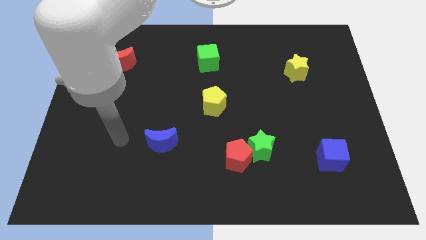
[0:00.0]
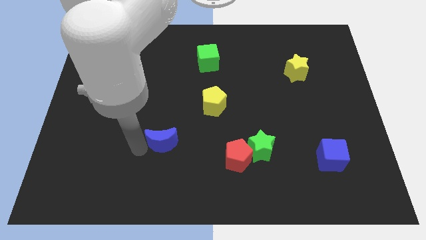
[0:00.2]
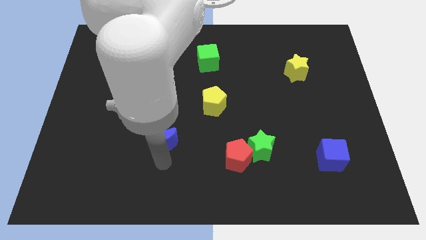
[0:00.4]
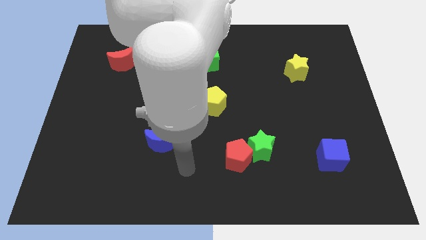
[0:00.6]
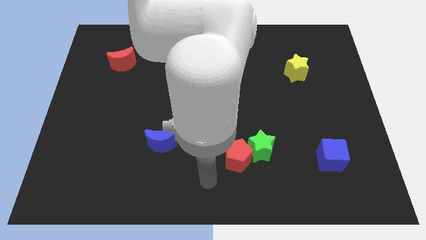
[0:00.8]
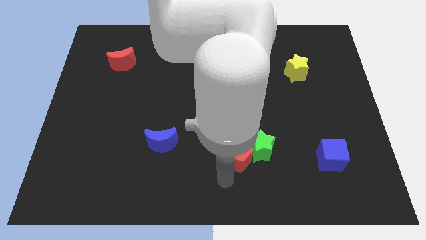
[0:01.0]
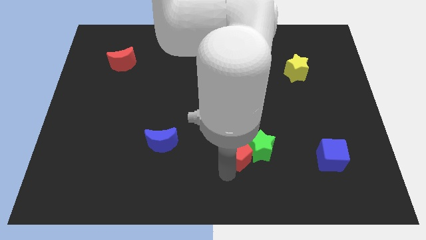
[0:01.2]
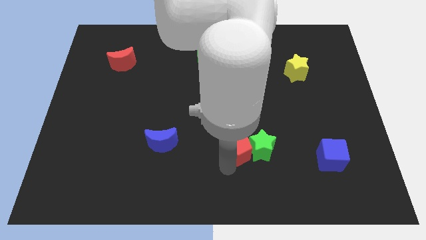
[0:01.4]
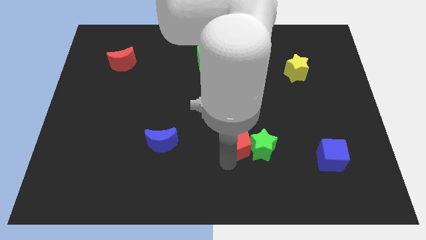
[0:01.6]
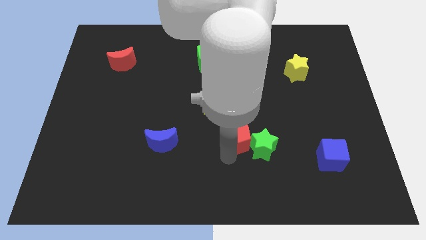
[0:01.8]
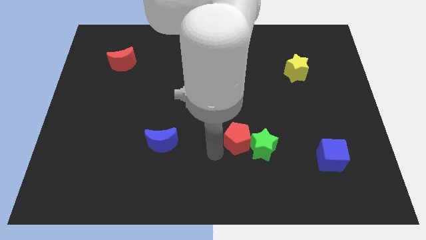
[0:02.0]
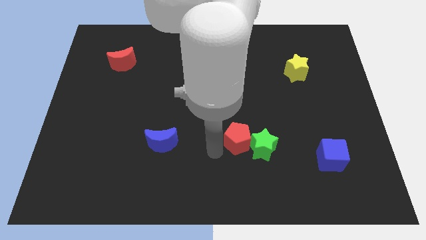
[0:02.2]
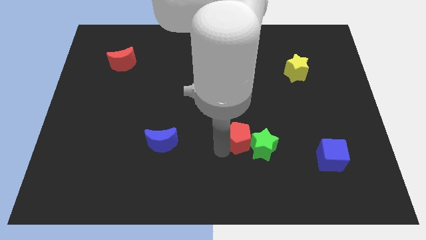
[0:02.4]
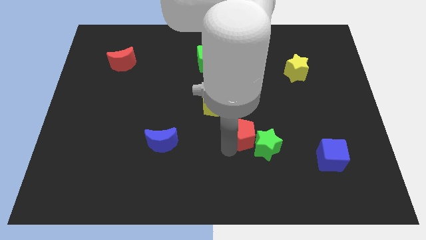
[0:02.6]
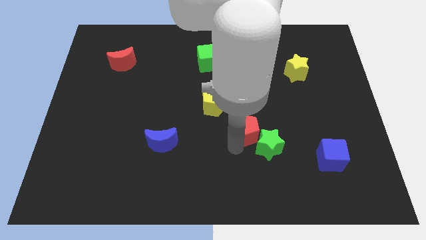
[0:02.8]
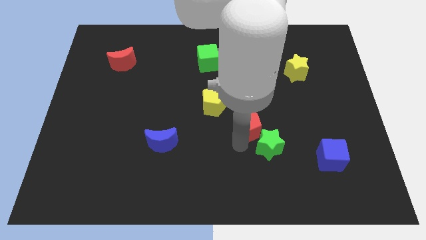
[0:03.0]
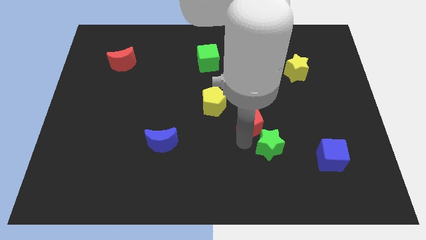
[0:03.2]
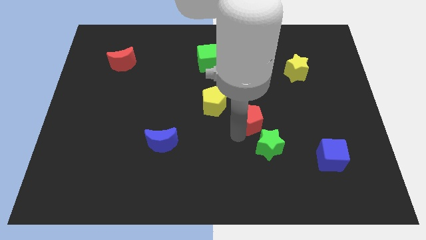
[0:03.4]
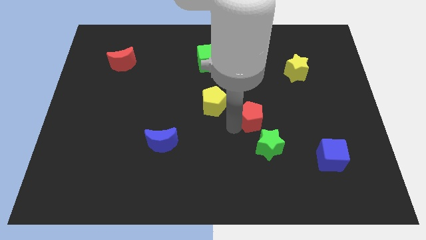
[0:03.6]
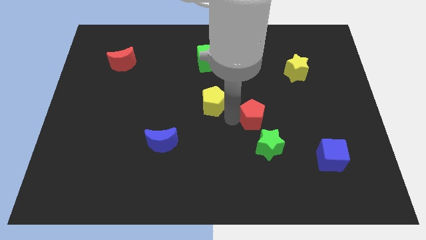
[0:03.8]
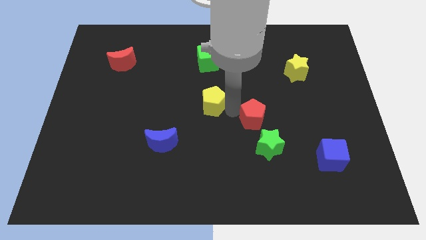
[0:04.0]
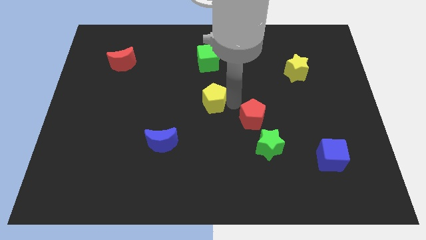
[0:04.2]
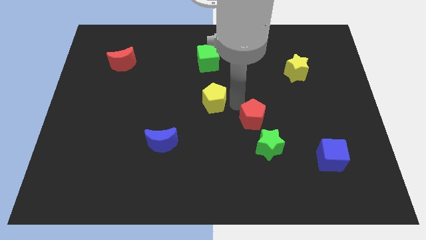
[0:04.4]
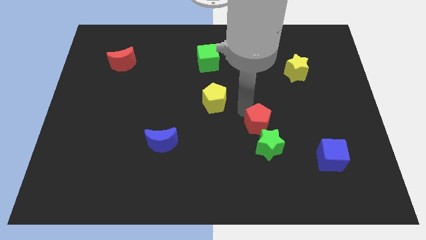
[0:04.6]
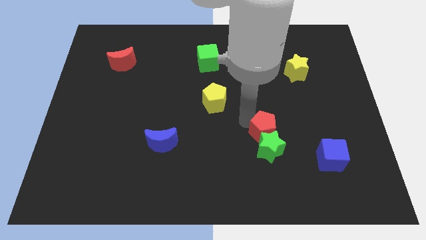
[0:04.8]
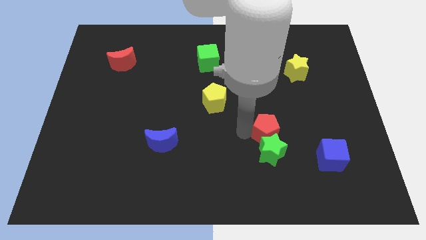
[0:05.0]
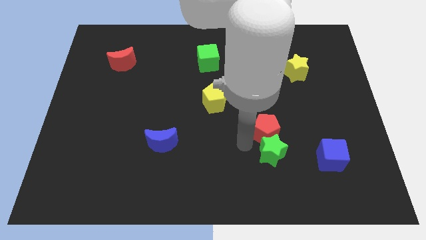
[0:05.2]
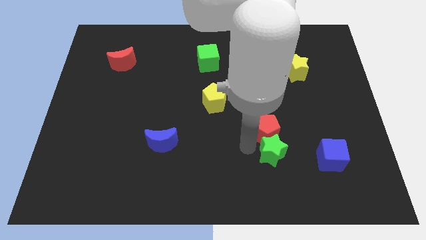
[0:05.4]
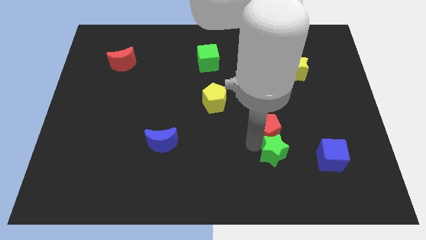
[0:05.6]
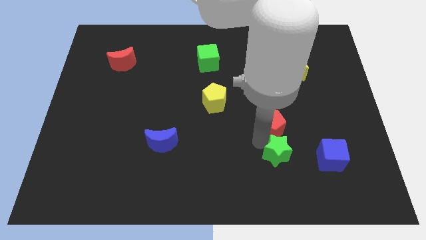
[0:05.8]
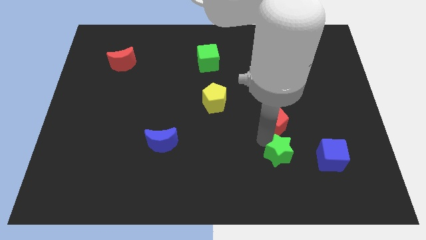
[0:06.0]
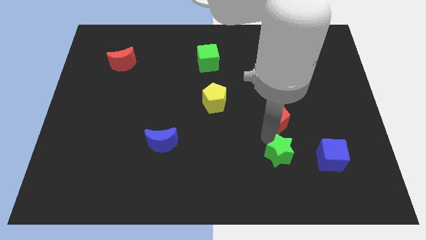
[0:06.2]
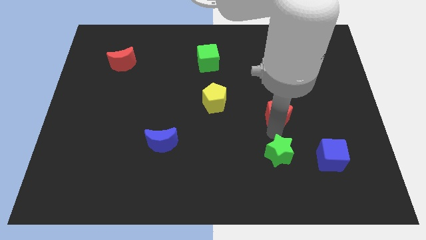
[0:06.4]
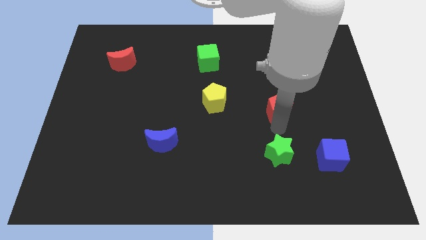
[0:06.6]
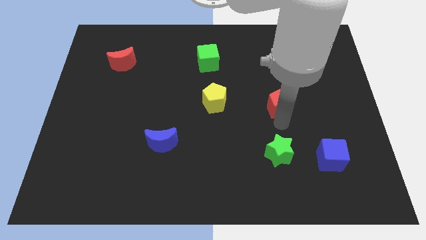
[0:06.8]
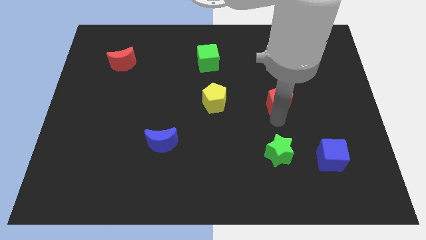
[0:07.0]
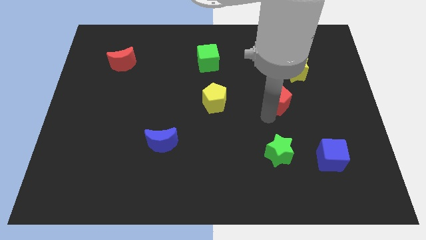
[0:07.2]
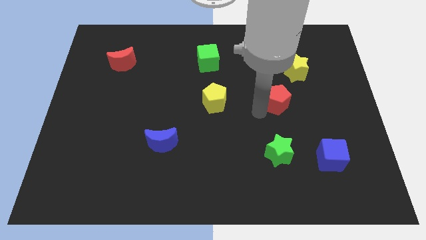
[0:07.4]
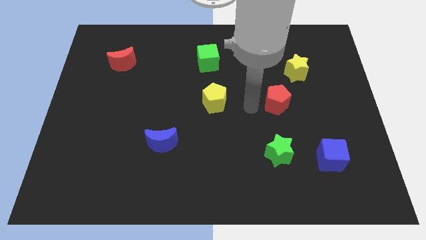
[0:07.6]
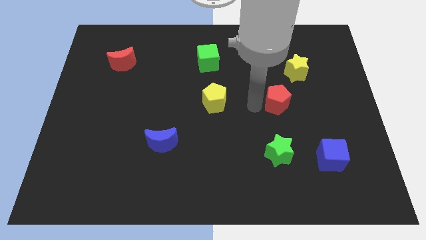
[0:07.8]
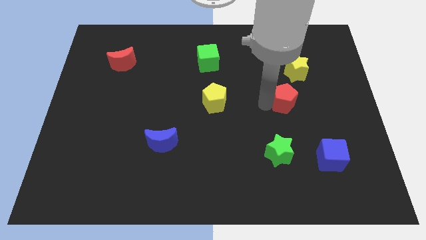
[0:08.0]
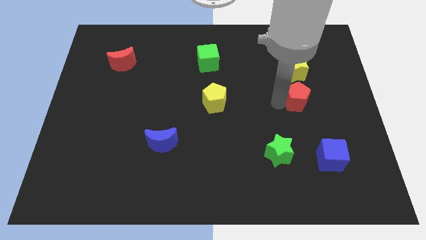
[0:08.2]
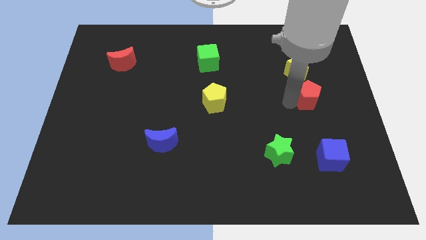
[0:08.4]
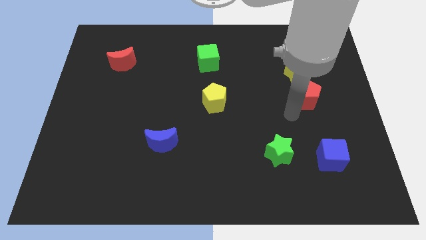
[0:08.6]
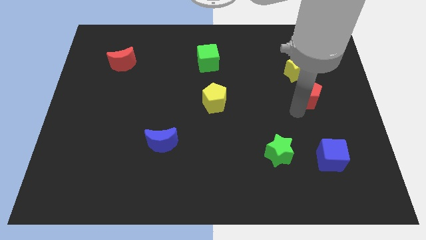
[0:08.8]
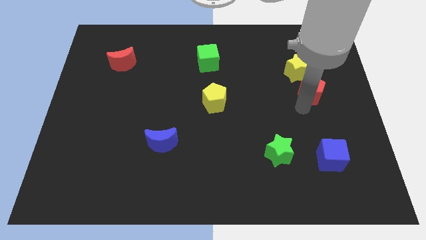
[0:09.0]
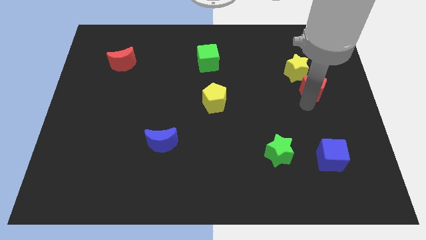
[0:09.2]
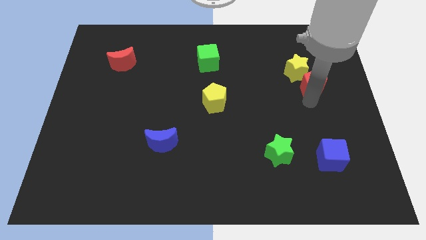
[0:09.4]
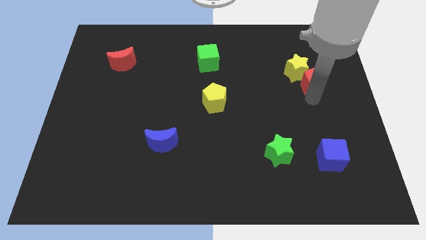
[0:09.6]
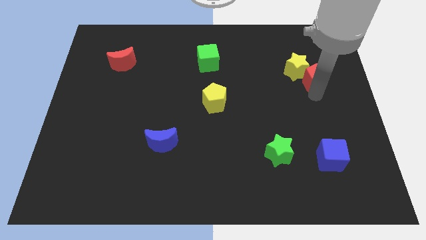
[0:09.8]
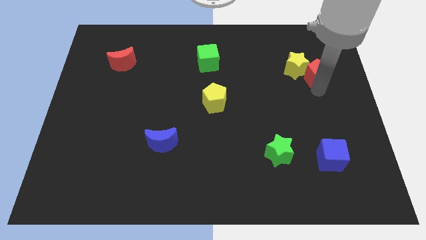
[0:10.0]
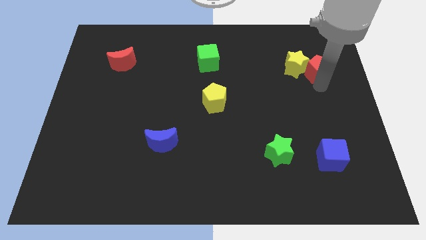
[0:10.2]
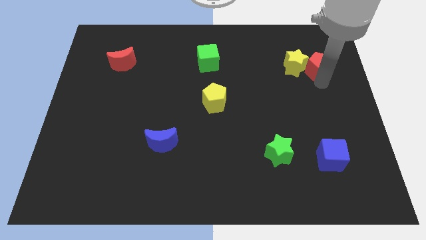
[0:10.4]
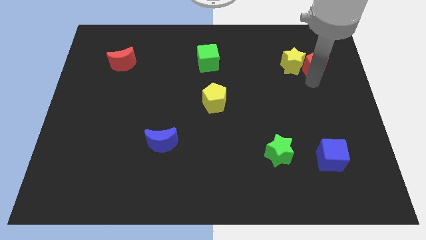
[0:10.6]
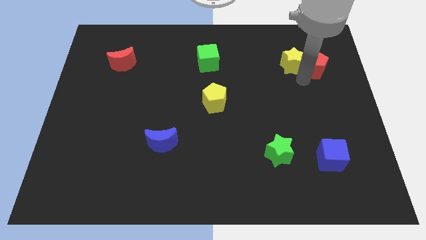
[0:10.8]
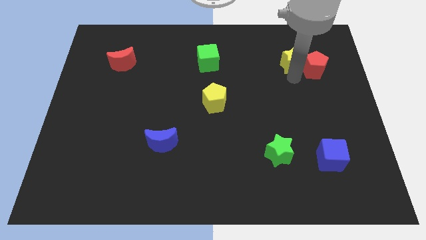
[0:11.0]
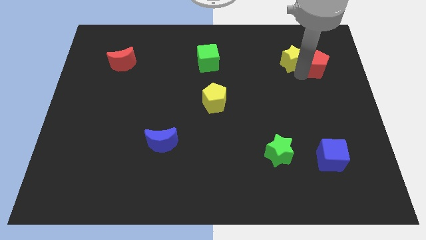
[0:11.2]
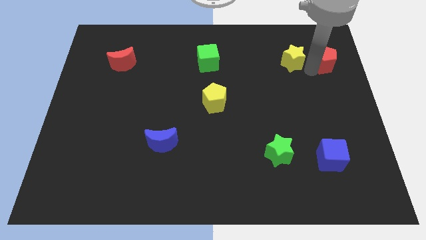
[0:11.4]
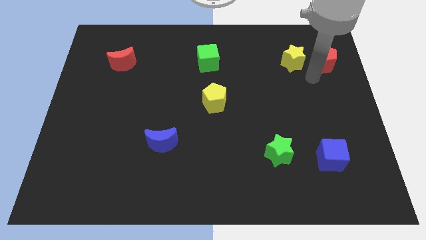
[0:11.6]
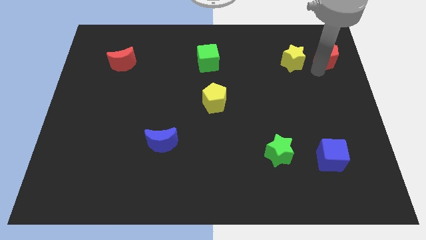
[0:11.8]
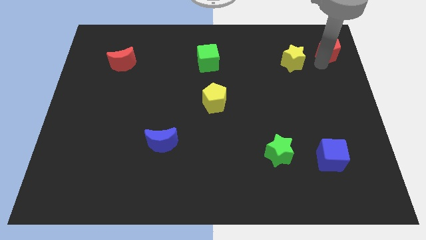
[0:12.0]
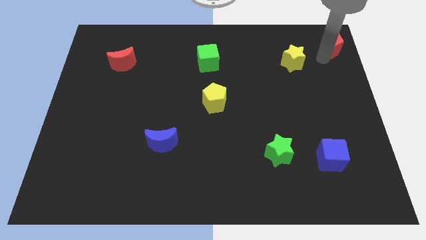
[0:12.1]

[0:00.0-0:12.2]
slide the red pentagon to the top right of the board

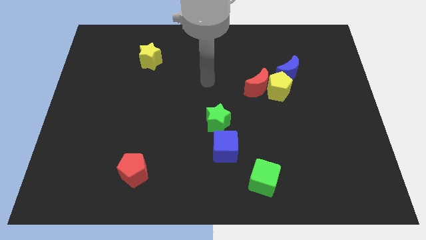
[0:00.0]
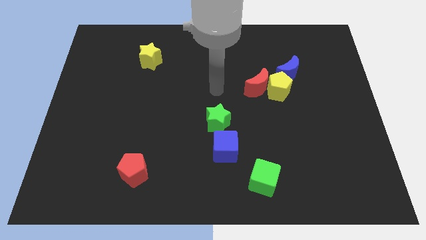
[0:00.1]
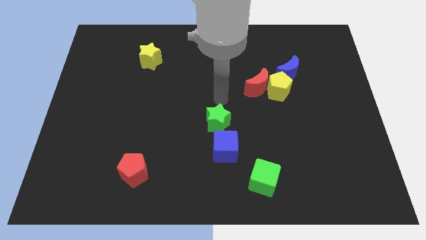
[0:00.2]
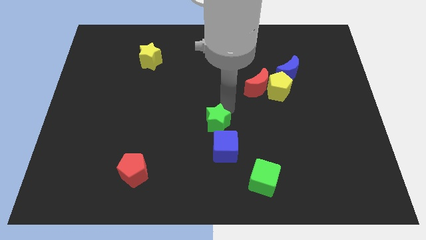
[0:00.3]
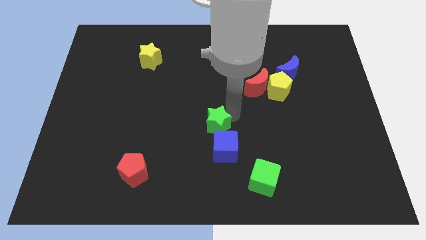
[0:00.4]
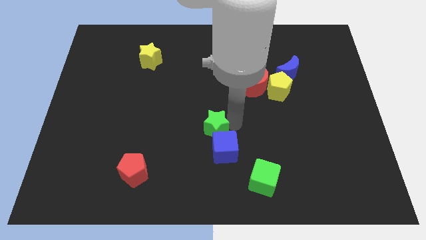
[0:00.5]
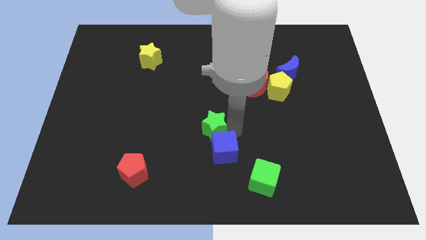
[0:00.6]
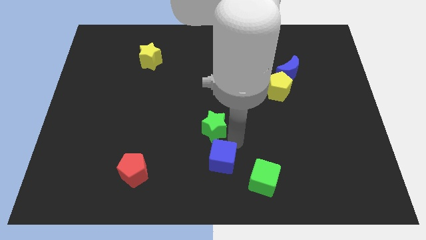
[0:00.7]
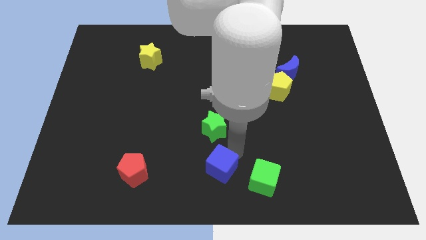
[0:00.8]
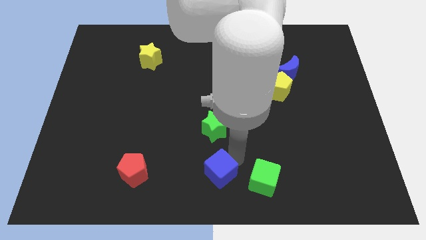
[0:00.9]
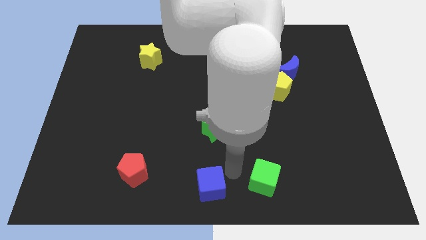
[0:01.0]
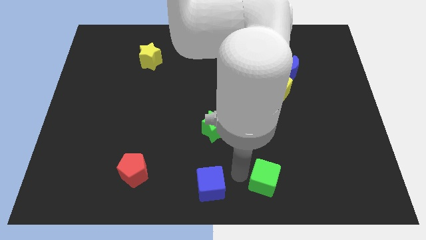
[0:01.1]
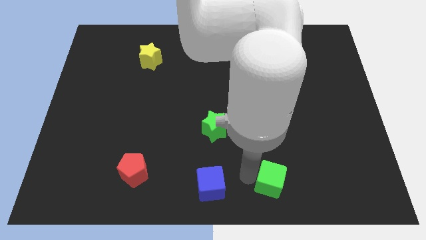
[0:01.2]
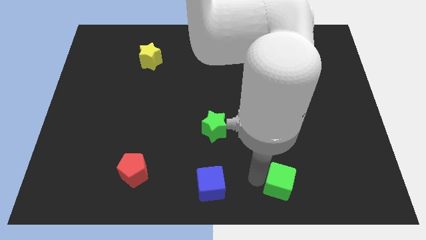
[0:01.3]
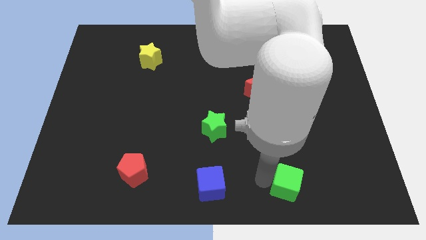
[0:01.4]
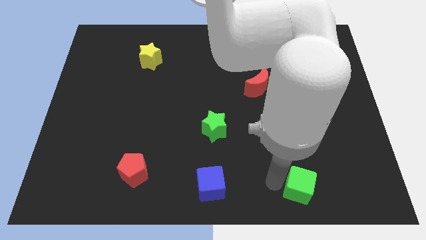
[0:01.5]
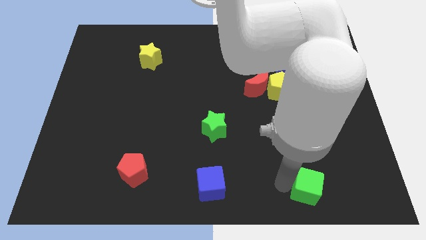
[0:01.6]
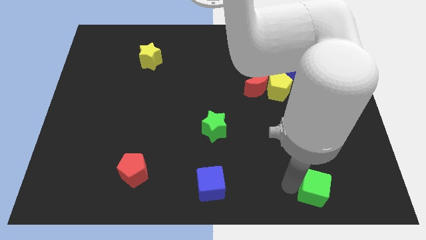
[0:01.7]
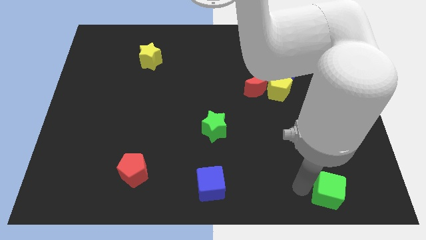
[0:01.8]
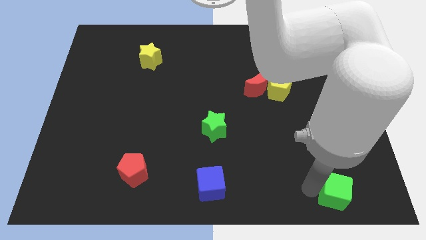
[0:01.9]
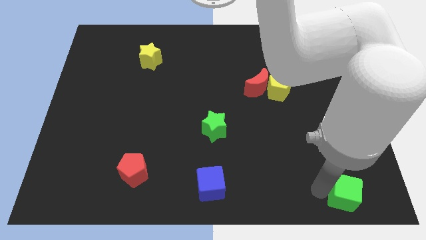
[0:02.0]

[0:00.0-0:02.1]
push the green cube to the bottom right
